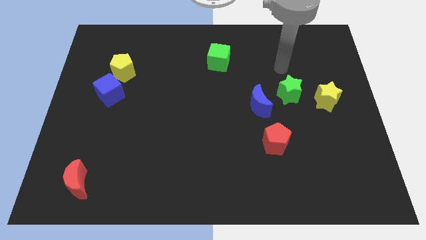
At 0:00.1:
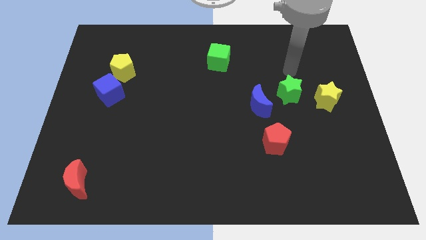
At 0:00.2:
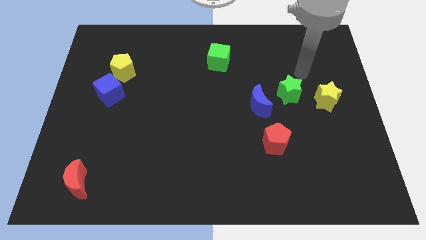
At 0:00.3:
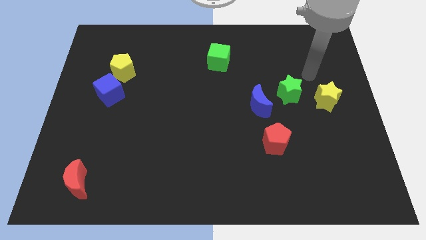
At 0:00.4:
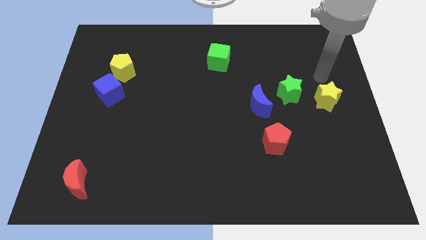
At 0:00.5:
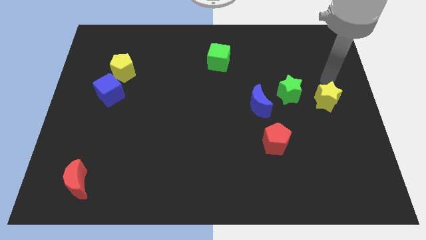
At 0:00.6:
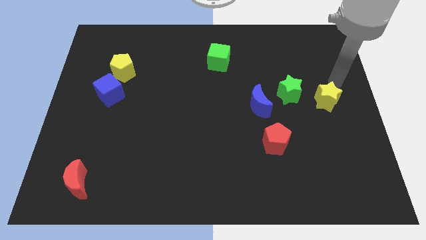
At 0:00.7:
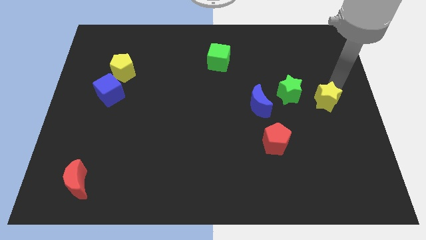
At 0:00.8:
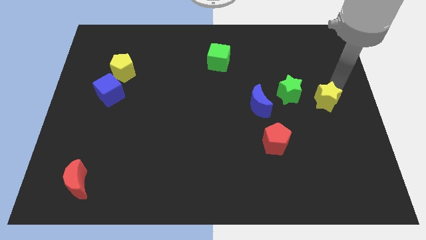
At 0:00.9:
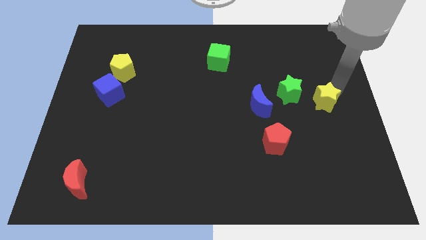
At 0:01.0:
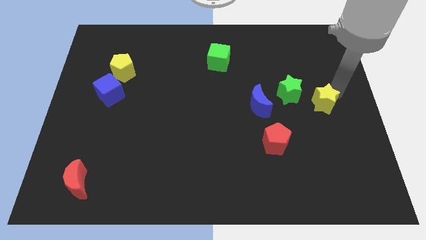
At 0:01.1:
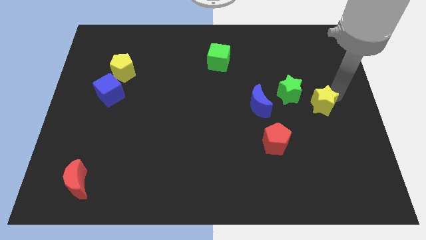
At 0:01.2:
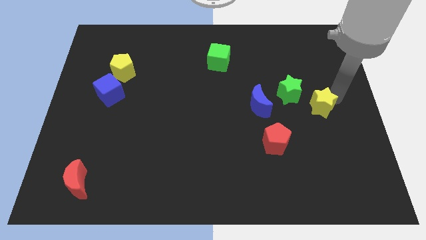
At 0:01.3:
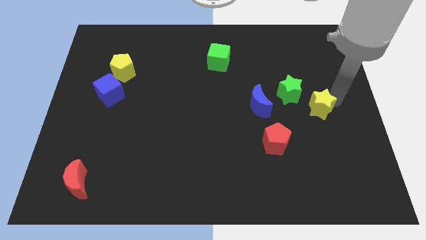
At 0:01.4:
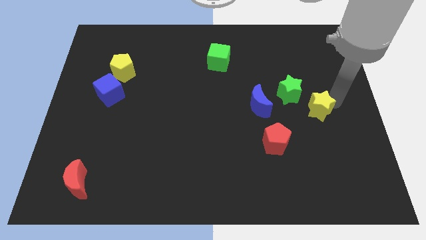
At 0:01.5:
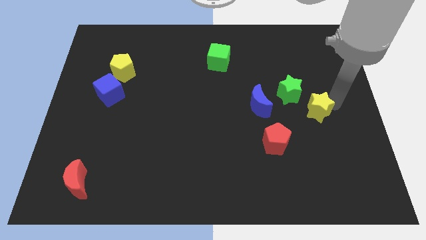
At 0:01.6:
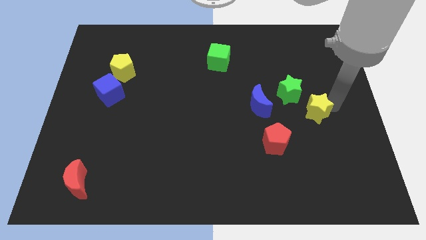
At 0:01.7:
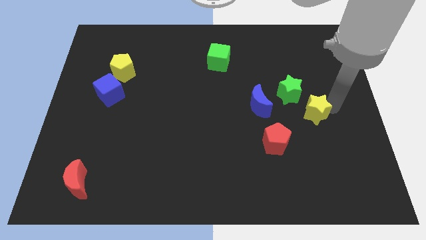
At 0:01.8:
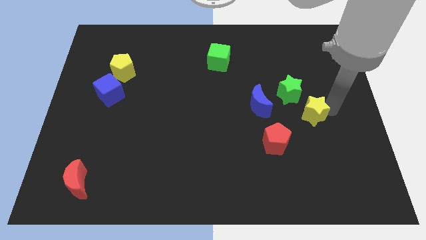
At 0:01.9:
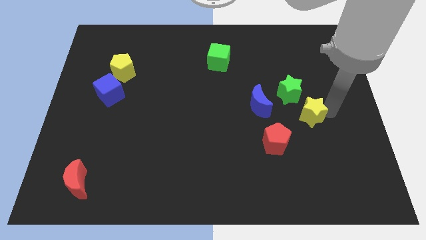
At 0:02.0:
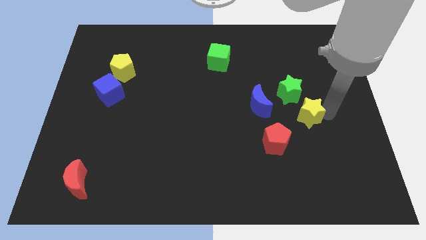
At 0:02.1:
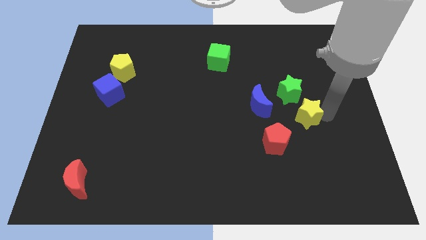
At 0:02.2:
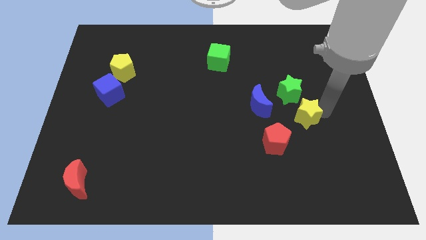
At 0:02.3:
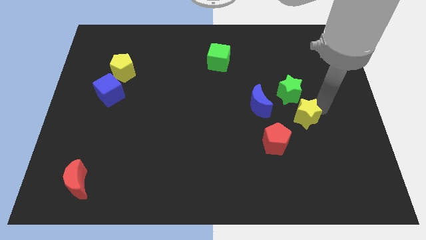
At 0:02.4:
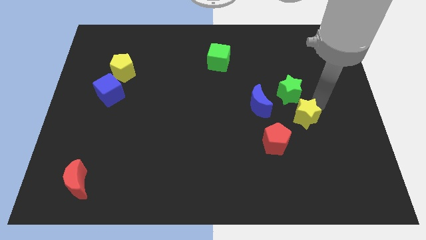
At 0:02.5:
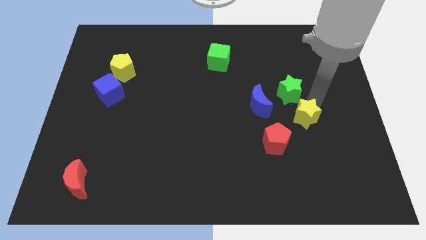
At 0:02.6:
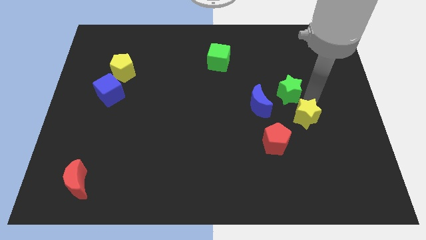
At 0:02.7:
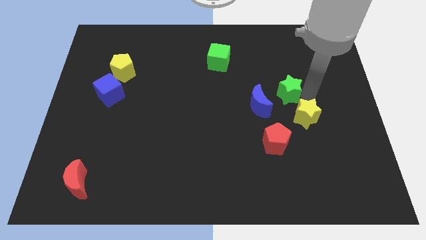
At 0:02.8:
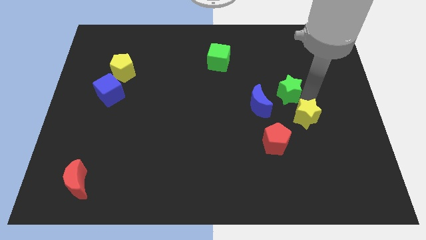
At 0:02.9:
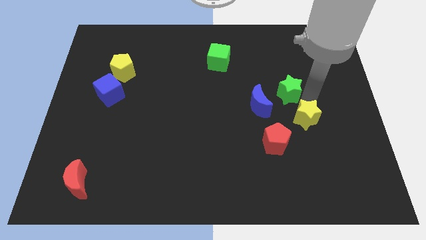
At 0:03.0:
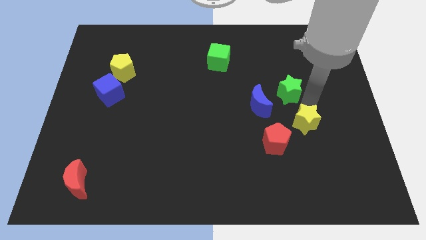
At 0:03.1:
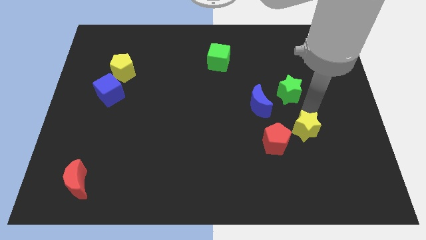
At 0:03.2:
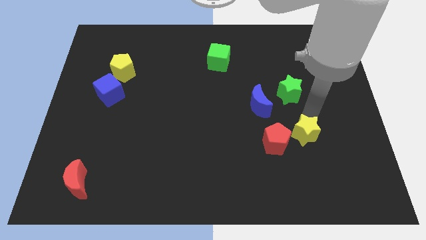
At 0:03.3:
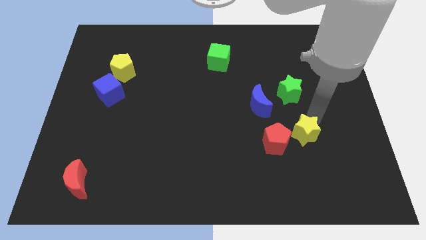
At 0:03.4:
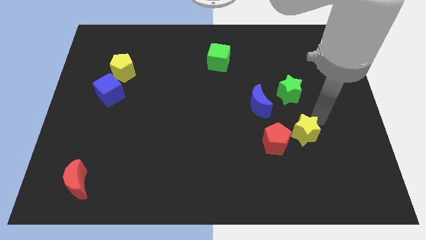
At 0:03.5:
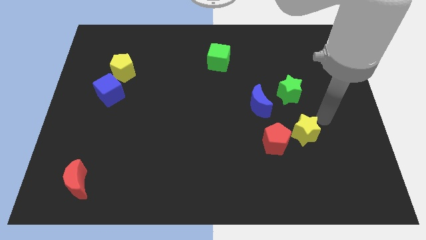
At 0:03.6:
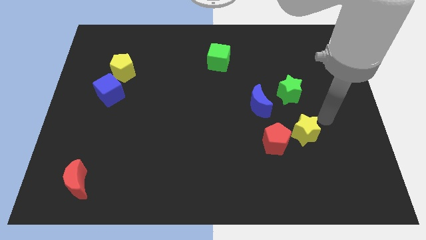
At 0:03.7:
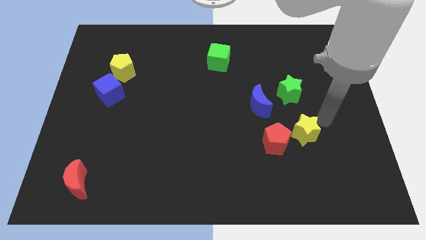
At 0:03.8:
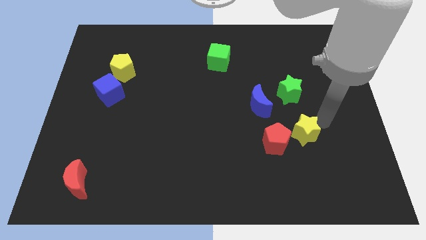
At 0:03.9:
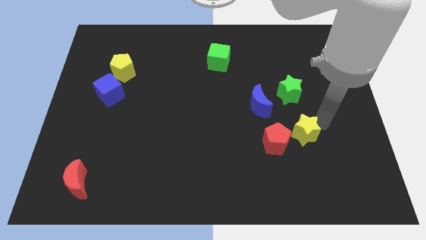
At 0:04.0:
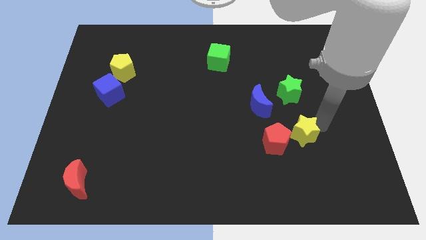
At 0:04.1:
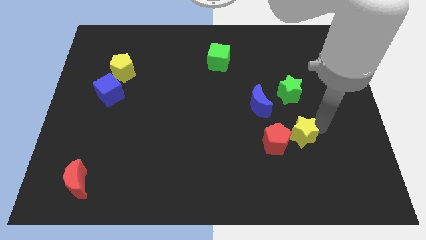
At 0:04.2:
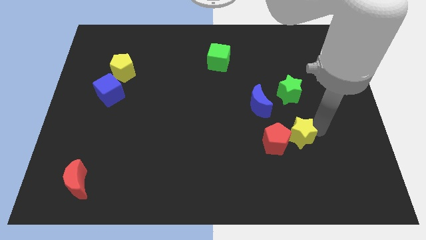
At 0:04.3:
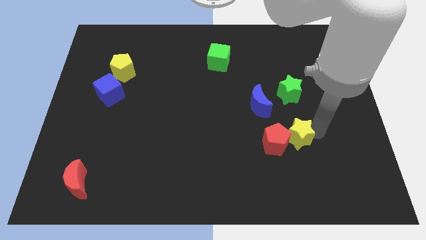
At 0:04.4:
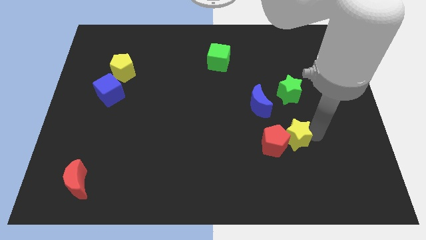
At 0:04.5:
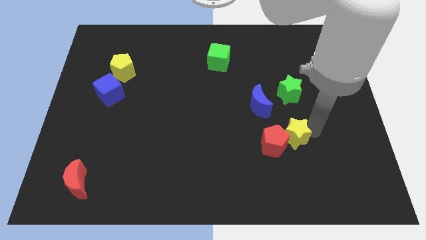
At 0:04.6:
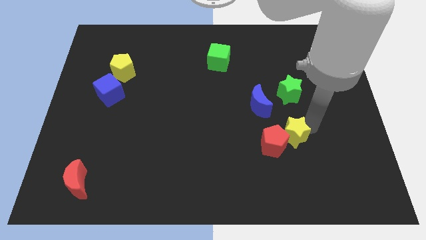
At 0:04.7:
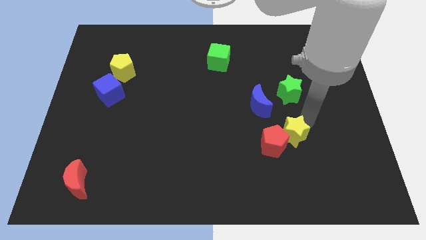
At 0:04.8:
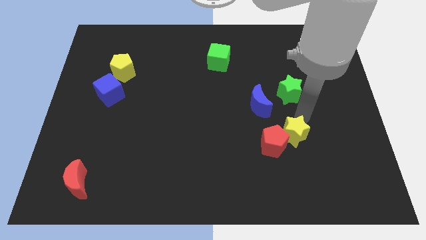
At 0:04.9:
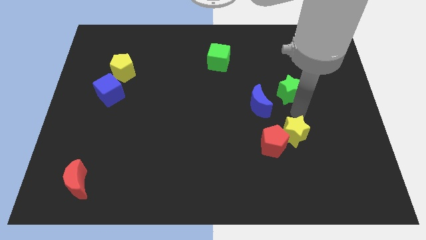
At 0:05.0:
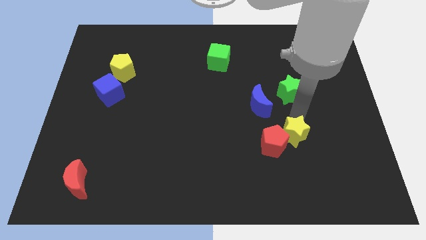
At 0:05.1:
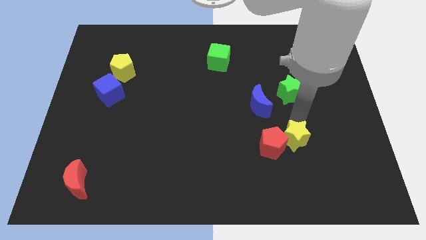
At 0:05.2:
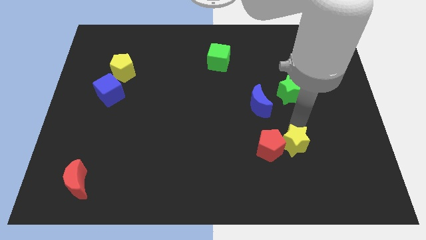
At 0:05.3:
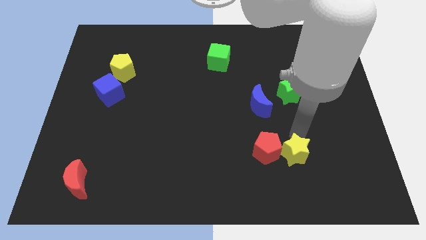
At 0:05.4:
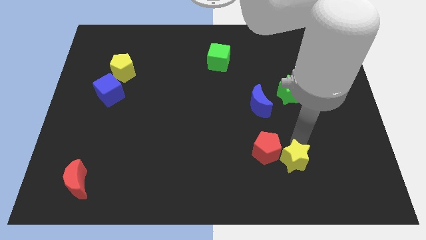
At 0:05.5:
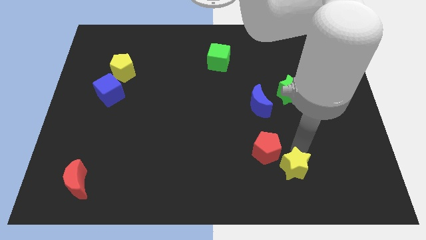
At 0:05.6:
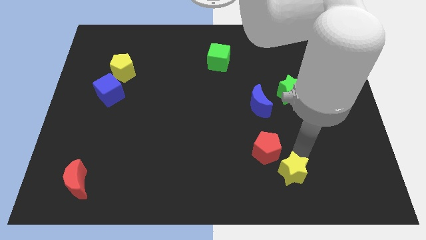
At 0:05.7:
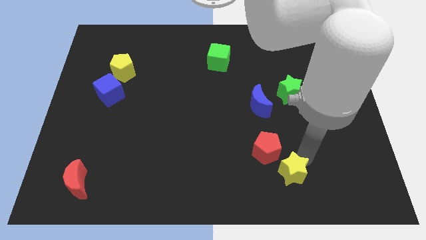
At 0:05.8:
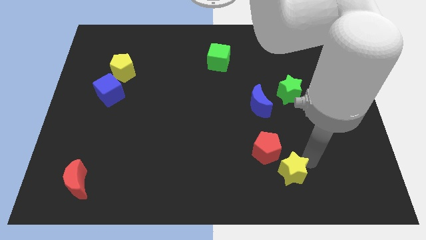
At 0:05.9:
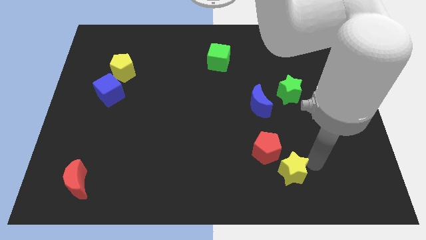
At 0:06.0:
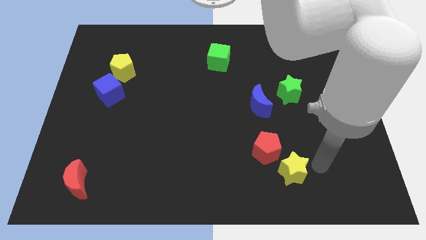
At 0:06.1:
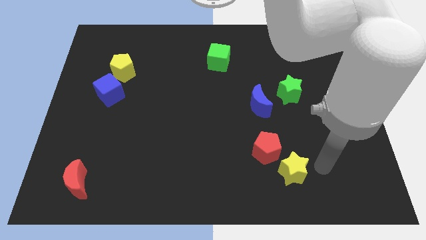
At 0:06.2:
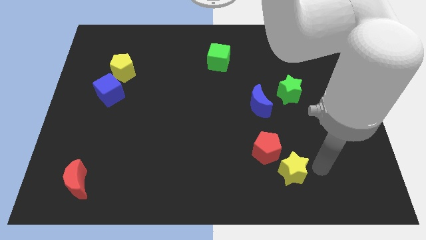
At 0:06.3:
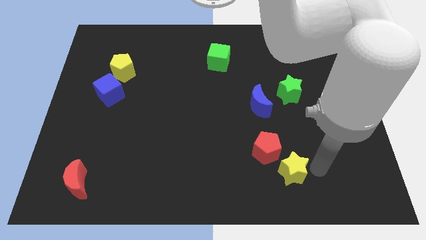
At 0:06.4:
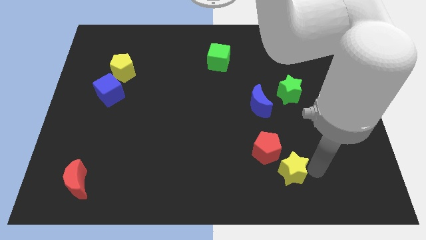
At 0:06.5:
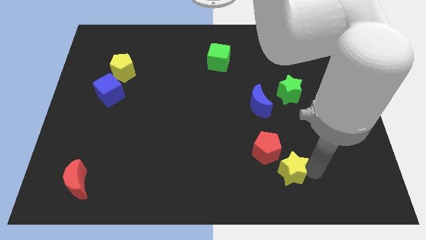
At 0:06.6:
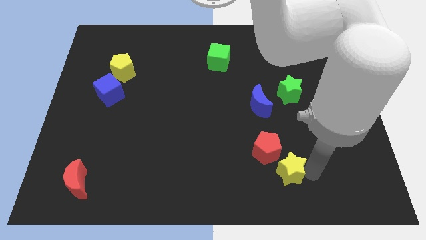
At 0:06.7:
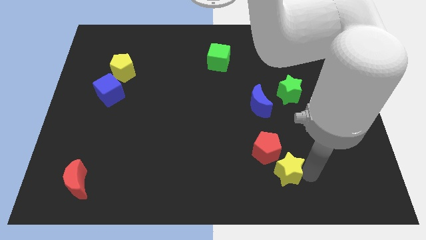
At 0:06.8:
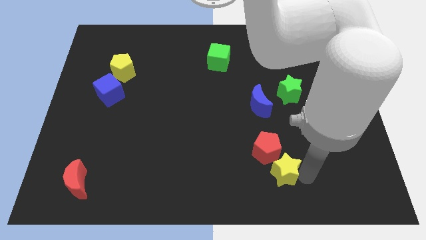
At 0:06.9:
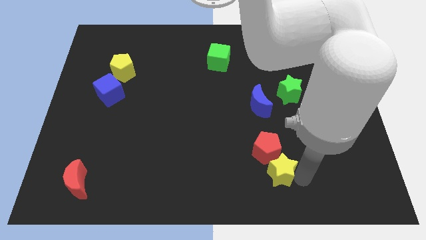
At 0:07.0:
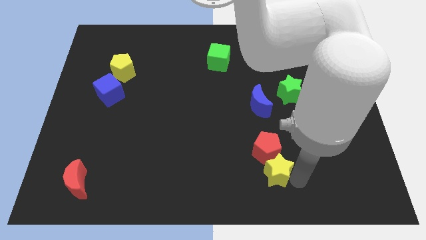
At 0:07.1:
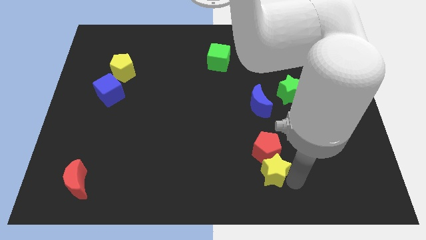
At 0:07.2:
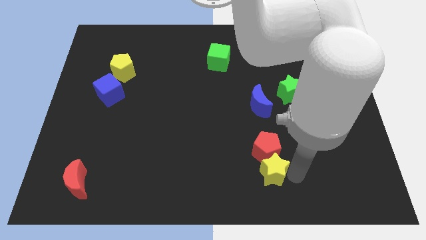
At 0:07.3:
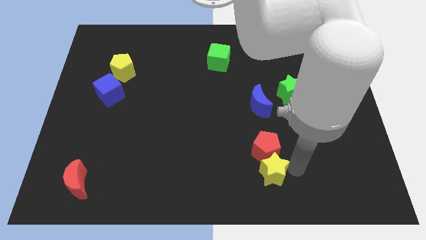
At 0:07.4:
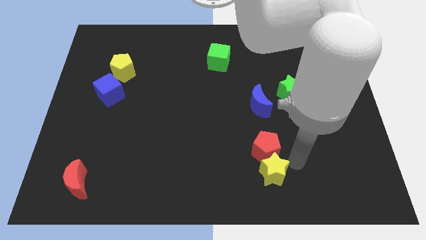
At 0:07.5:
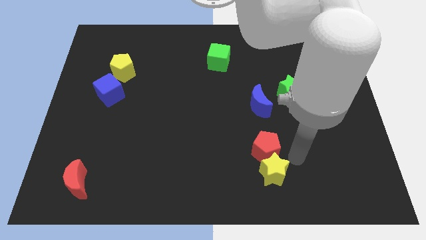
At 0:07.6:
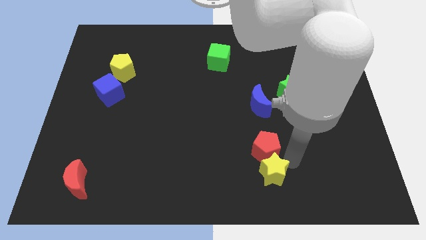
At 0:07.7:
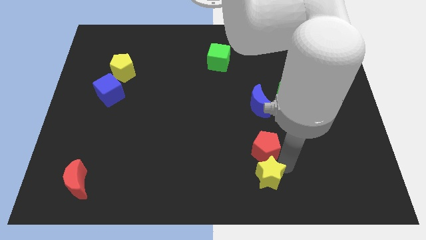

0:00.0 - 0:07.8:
put the yellow star to the bottom
